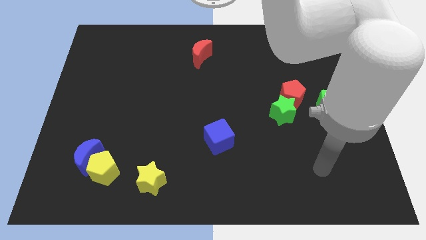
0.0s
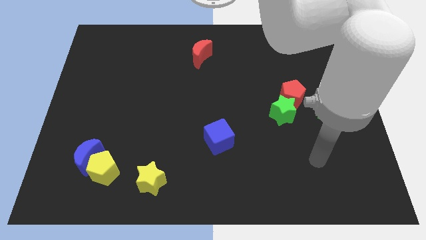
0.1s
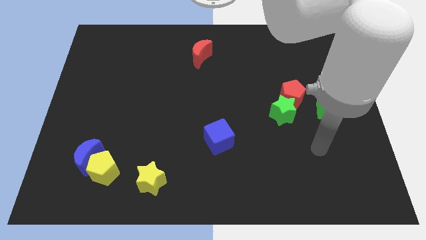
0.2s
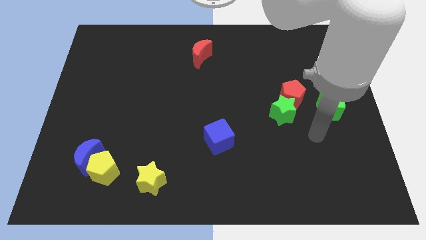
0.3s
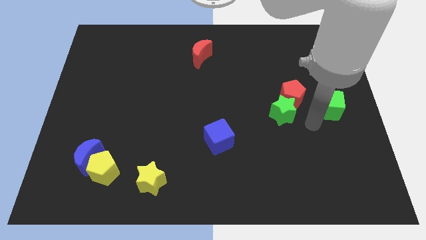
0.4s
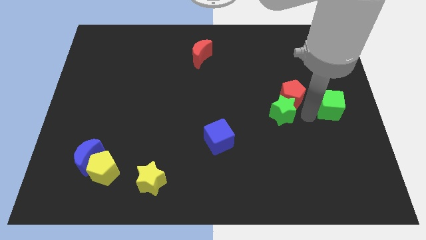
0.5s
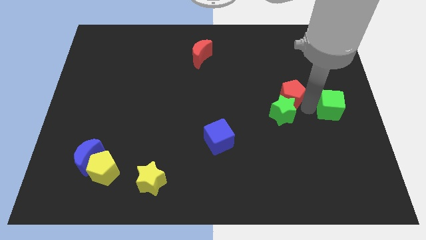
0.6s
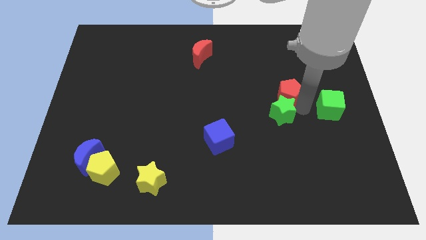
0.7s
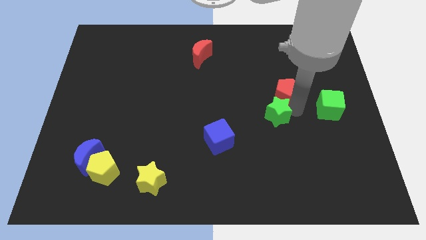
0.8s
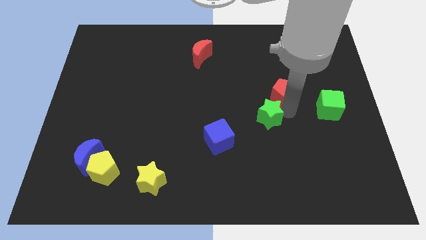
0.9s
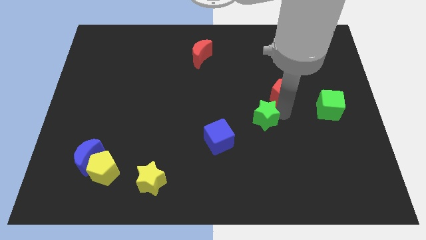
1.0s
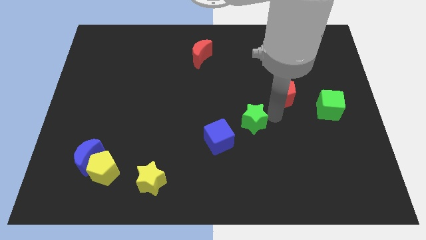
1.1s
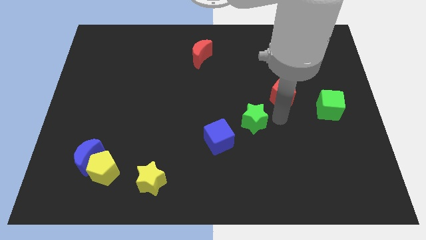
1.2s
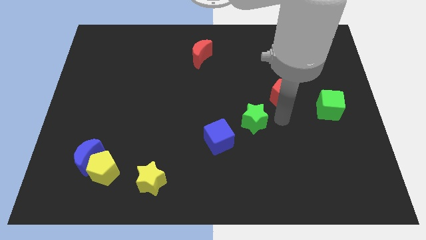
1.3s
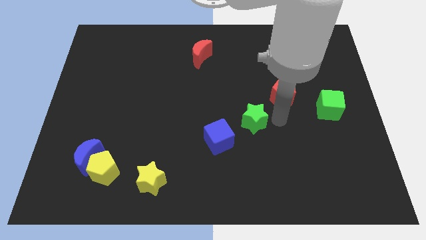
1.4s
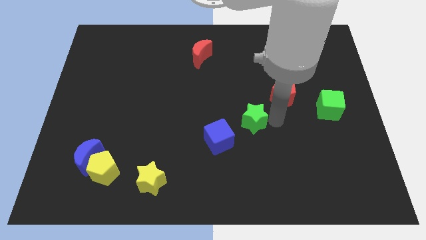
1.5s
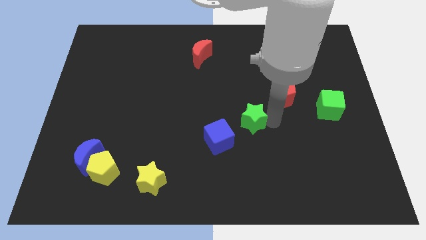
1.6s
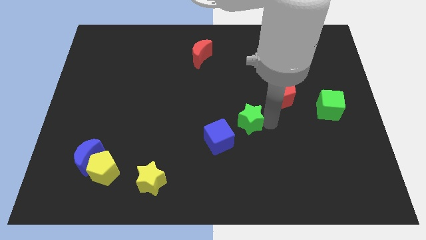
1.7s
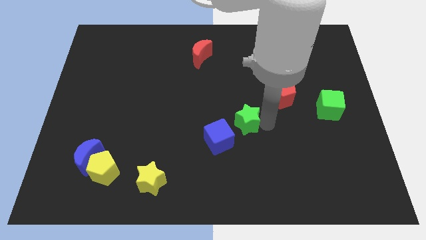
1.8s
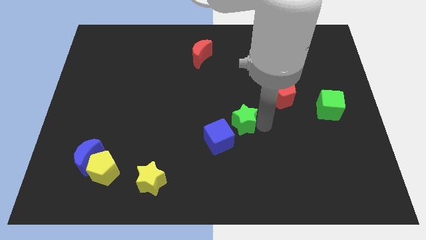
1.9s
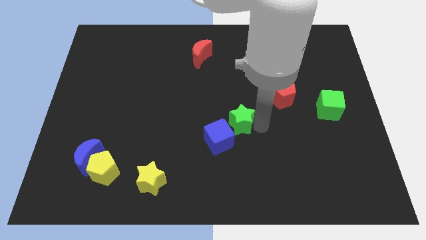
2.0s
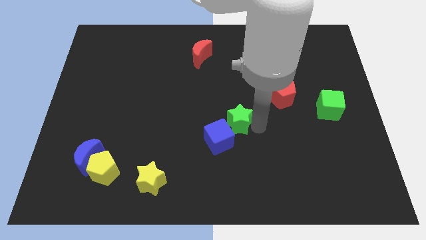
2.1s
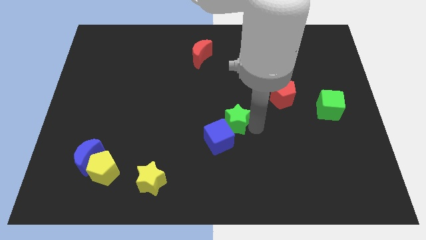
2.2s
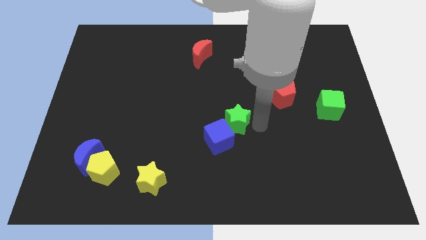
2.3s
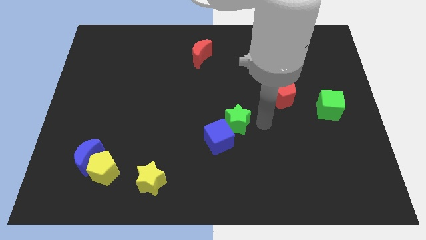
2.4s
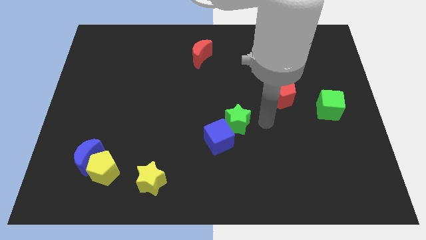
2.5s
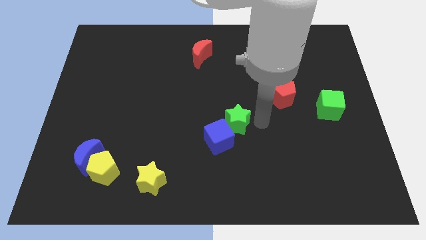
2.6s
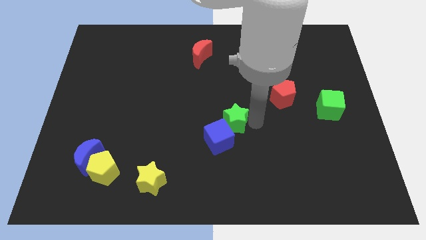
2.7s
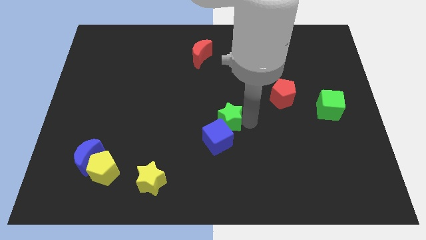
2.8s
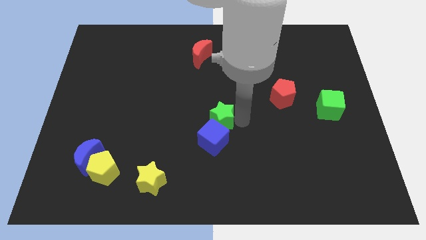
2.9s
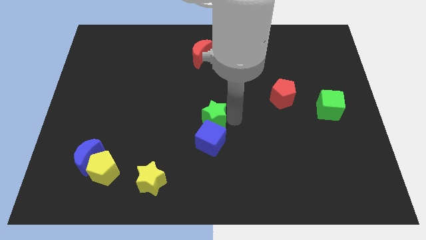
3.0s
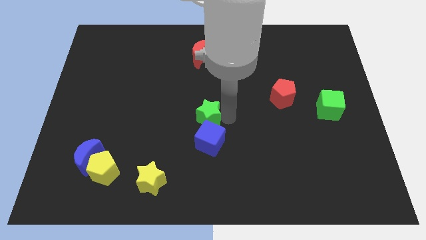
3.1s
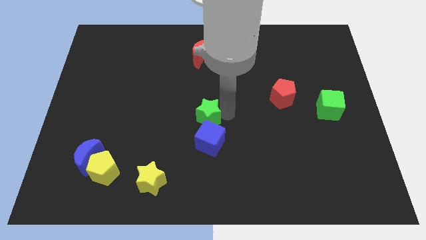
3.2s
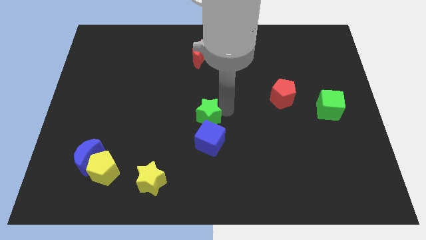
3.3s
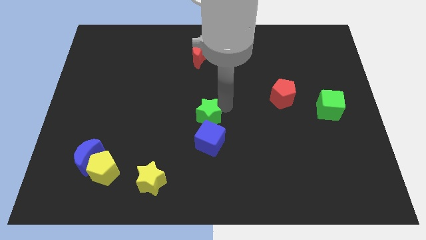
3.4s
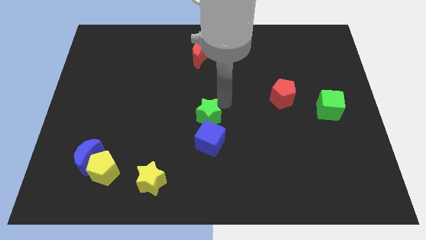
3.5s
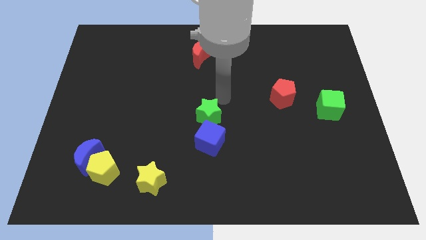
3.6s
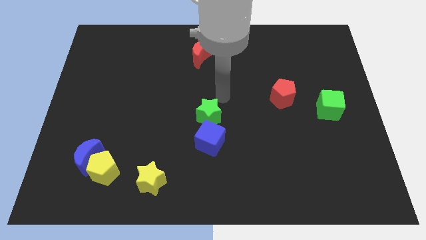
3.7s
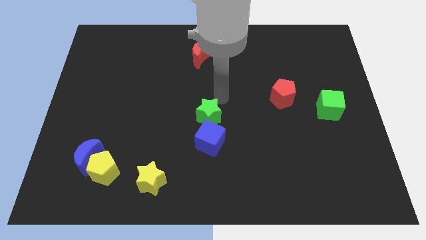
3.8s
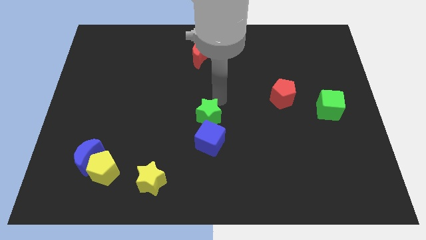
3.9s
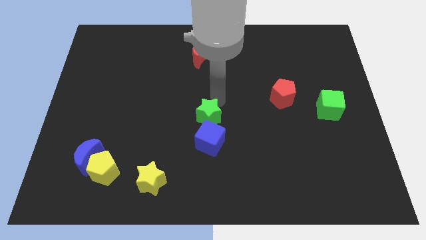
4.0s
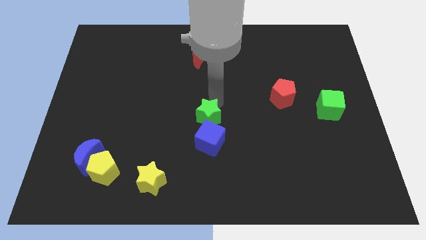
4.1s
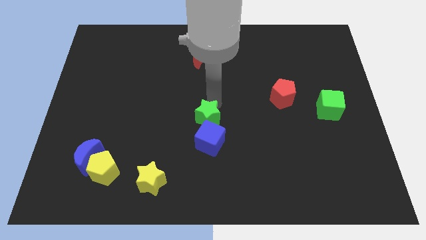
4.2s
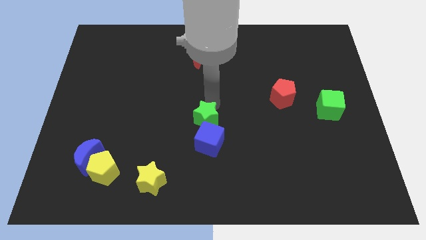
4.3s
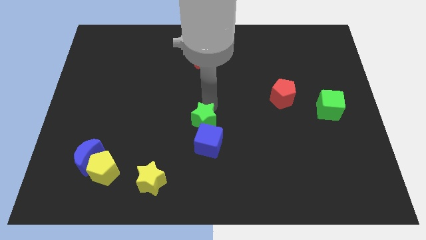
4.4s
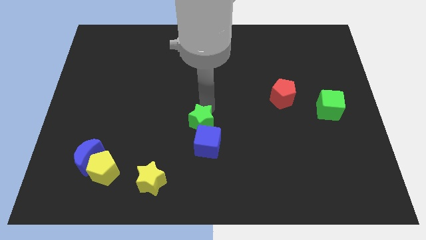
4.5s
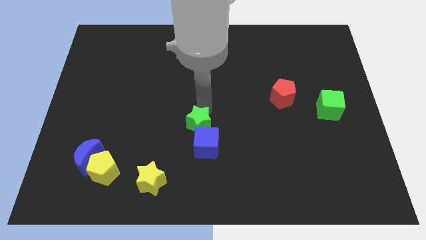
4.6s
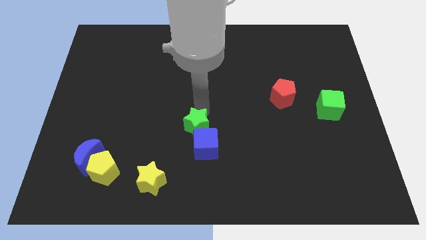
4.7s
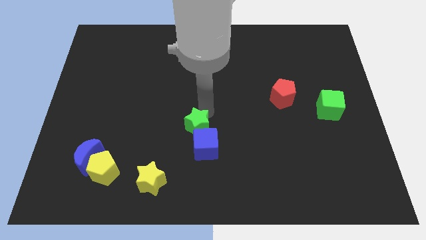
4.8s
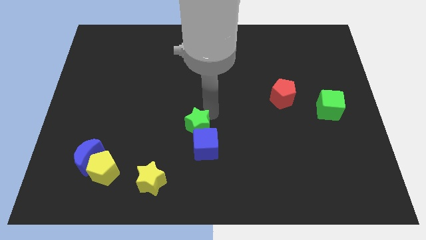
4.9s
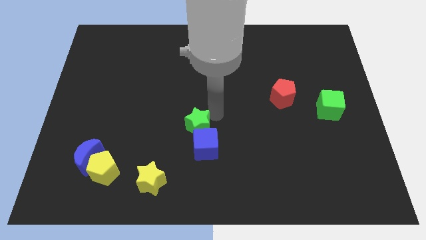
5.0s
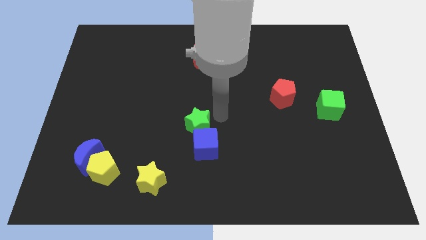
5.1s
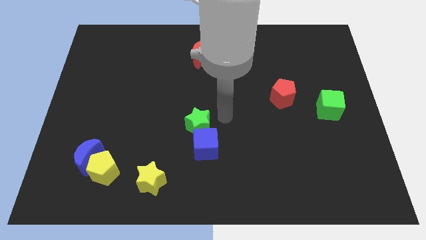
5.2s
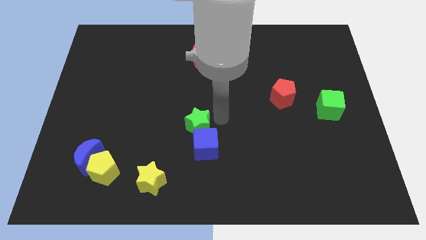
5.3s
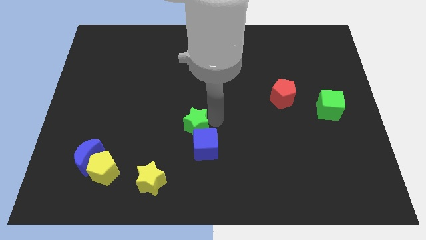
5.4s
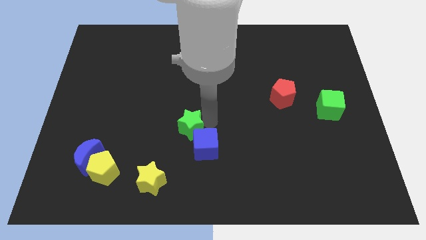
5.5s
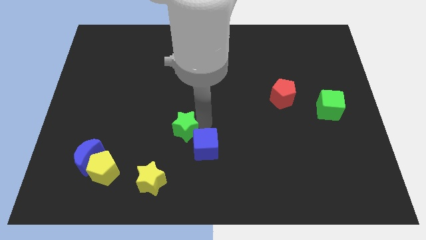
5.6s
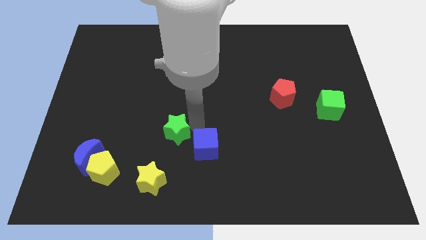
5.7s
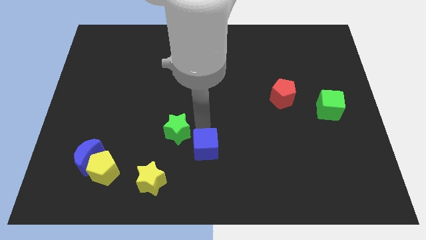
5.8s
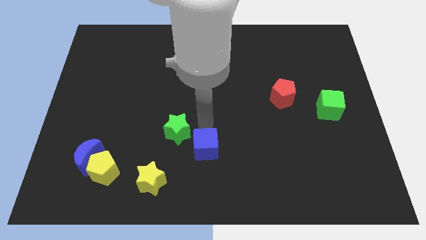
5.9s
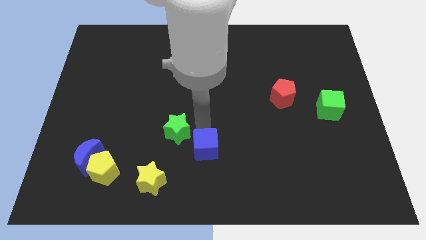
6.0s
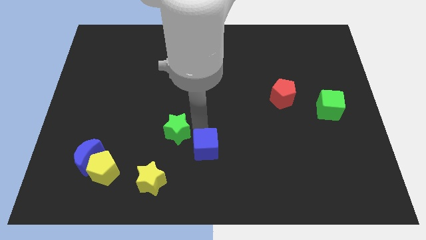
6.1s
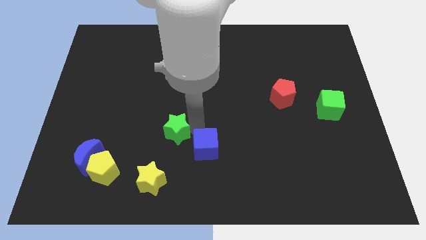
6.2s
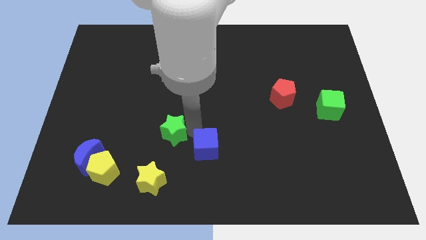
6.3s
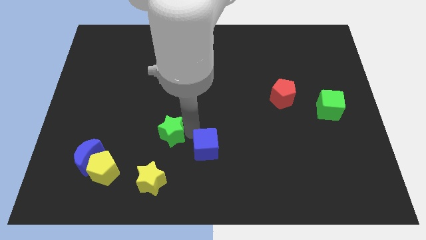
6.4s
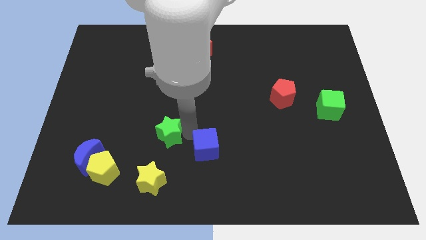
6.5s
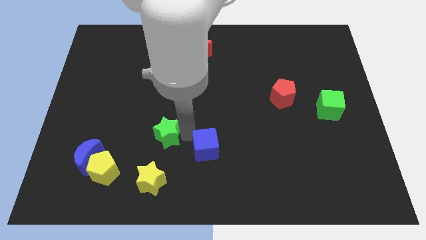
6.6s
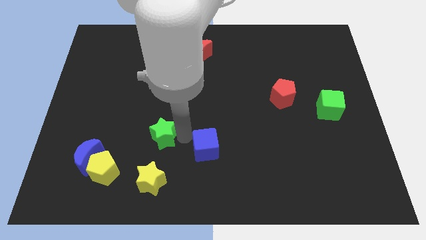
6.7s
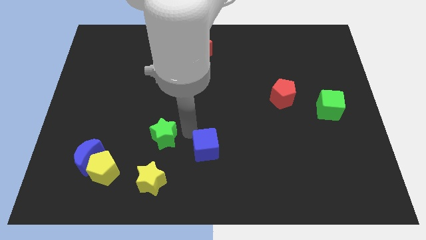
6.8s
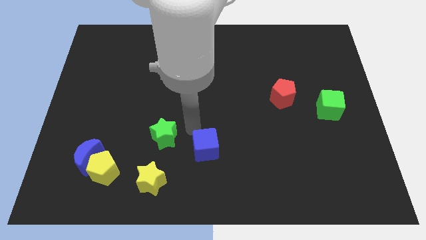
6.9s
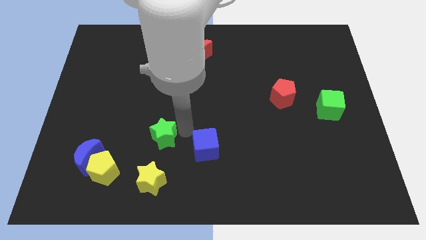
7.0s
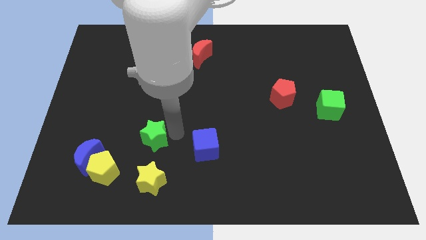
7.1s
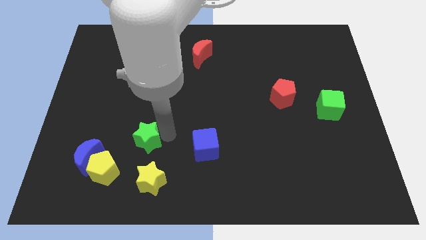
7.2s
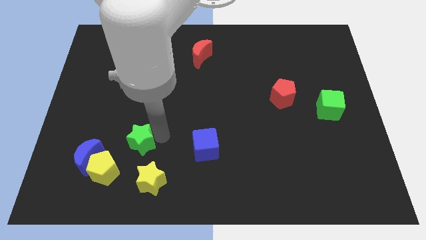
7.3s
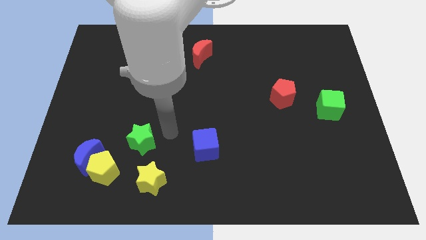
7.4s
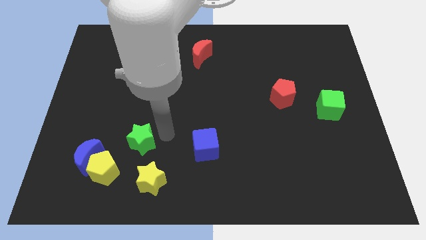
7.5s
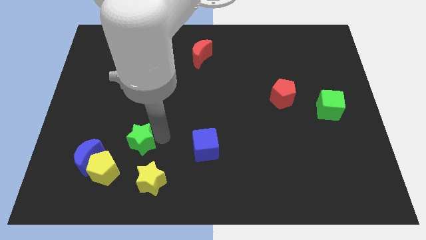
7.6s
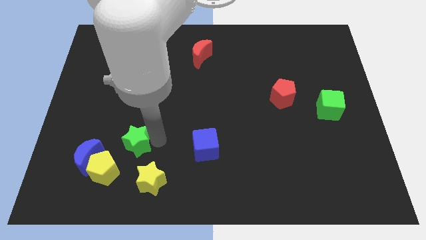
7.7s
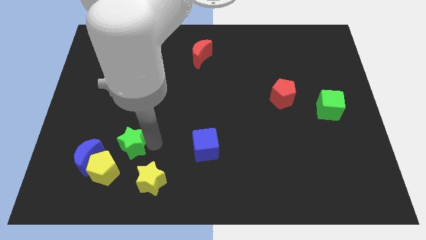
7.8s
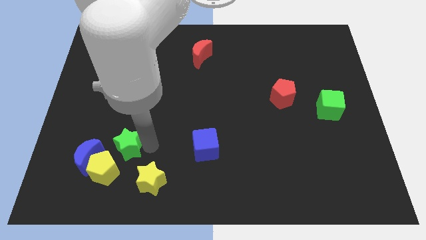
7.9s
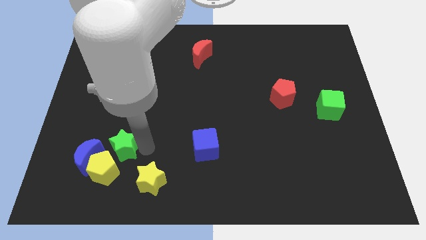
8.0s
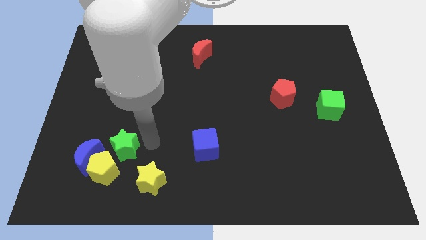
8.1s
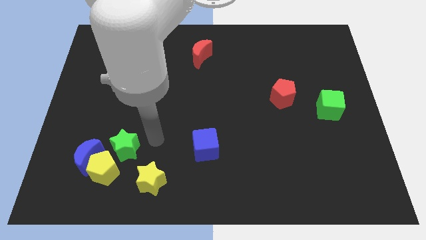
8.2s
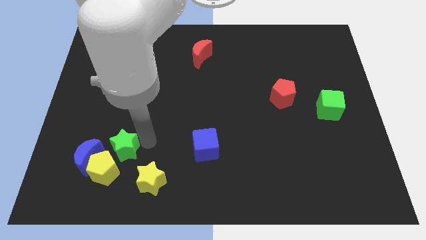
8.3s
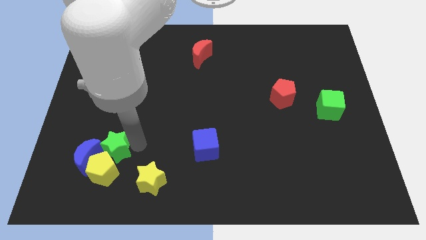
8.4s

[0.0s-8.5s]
push the green star close to the blue moon
